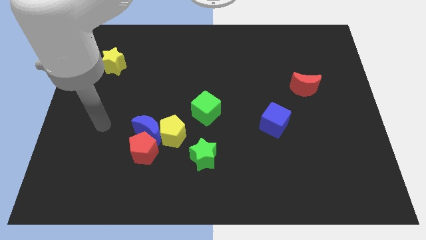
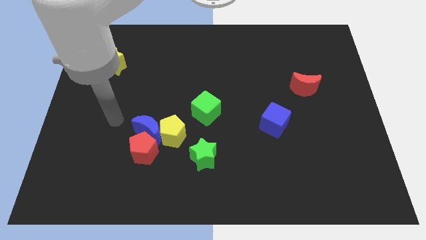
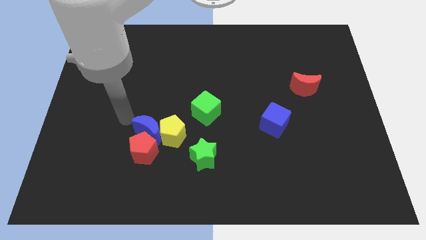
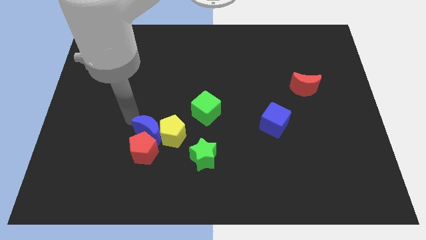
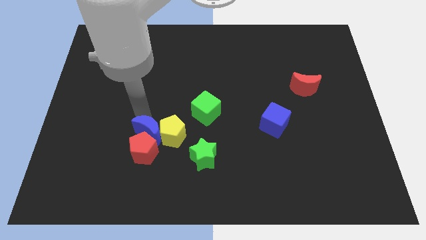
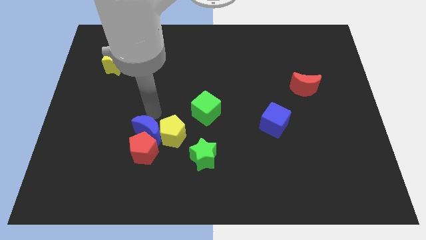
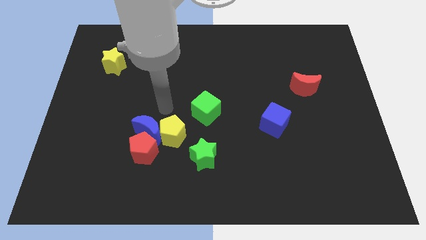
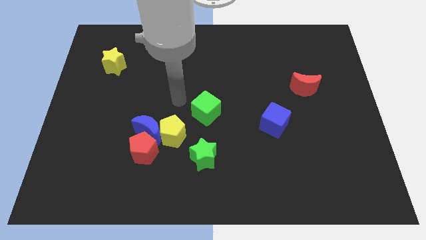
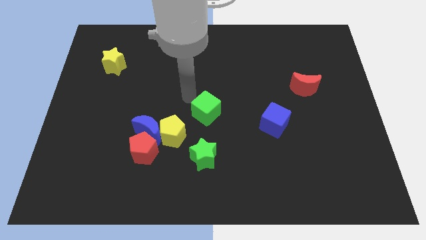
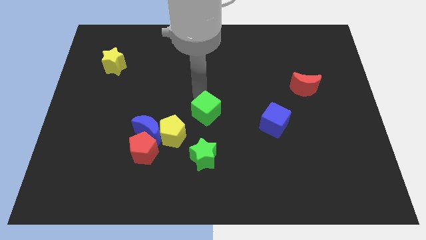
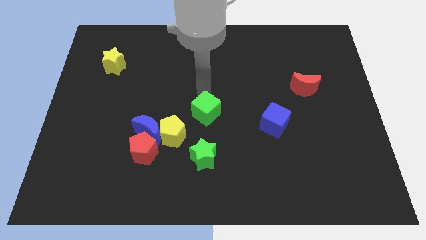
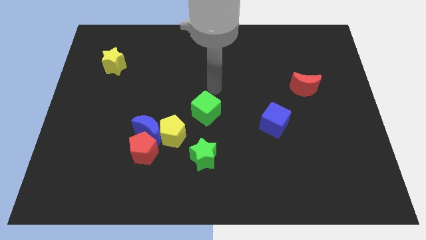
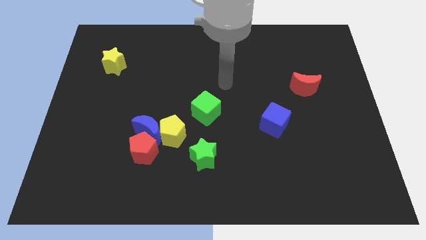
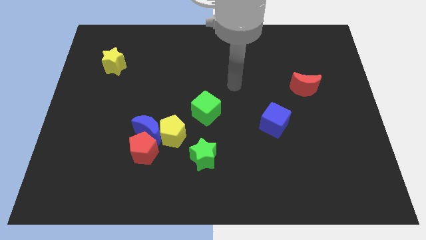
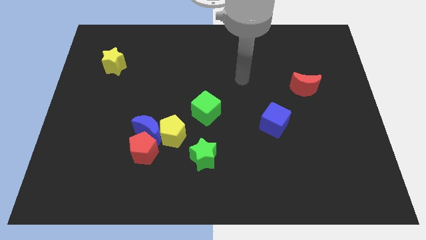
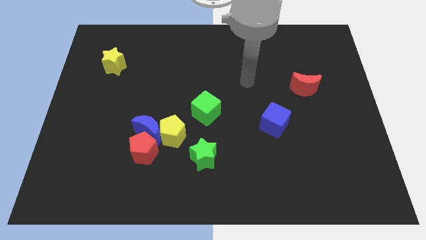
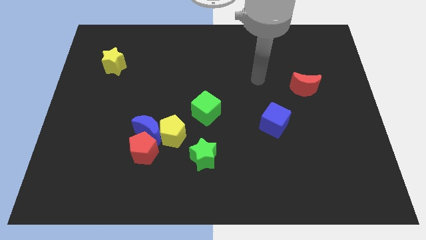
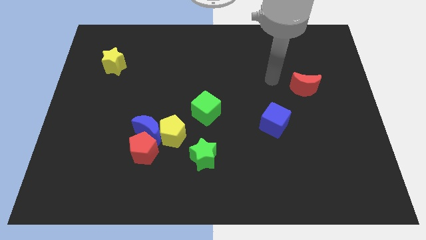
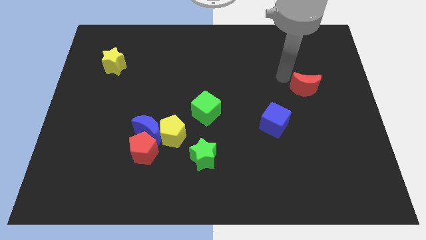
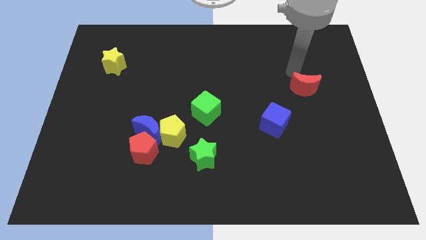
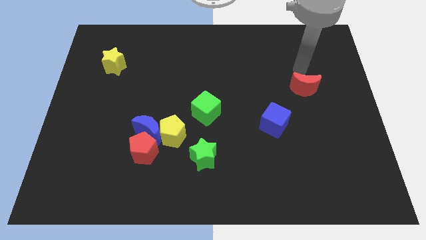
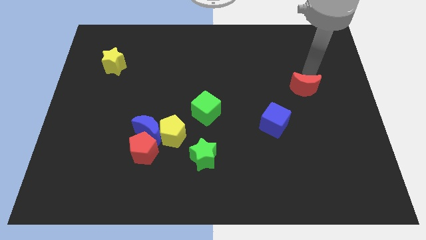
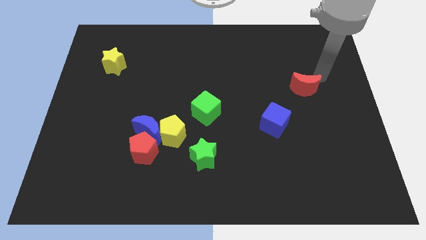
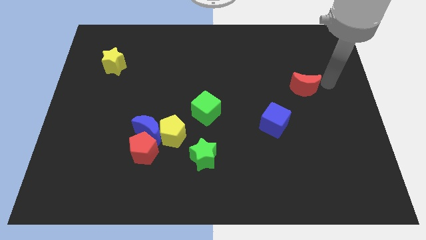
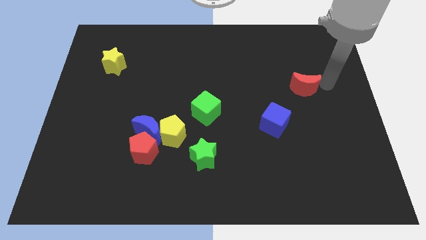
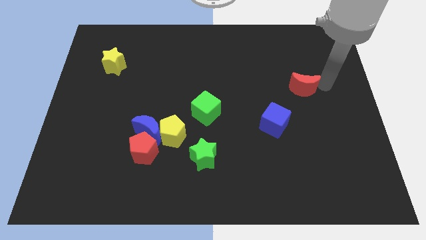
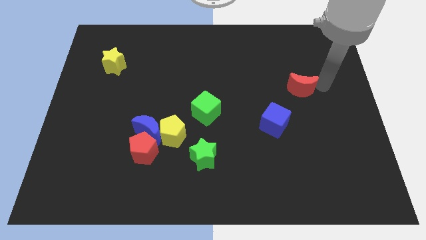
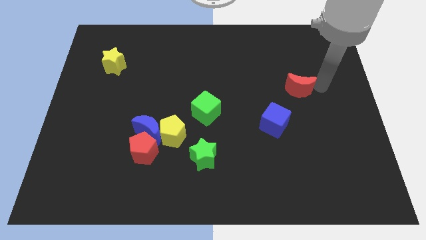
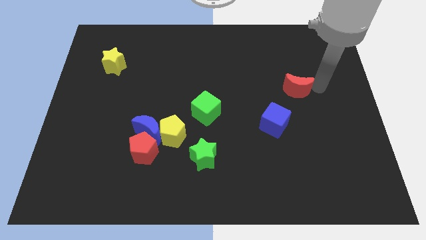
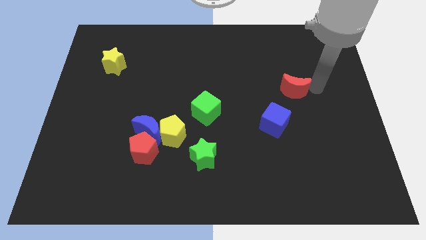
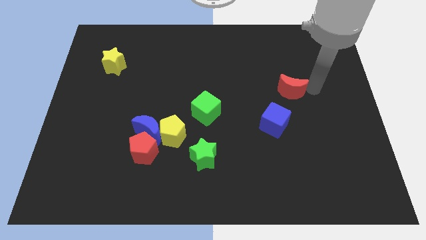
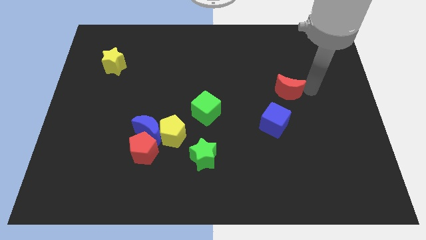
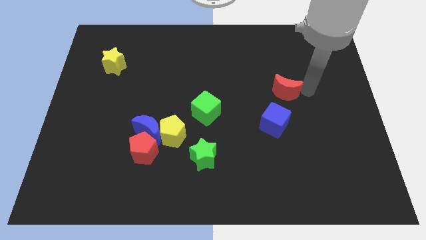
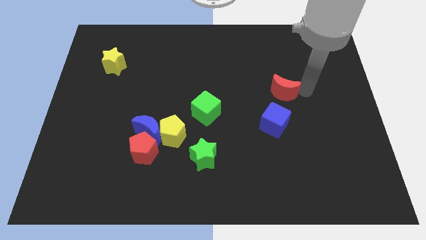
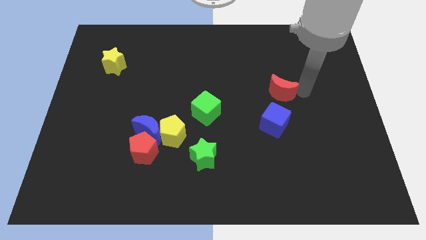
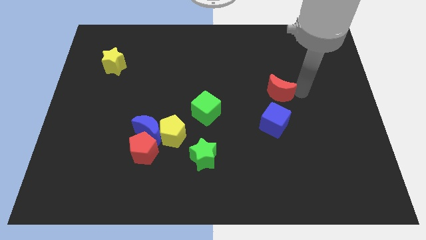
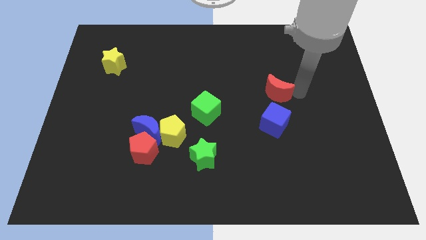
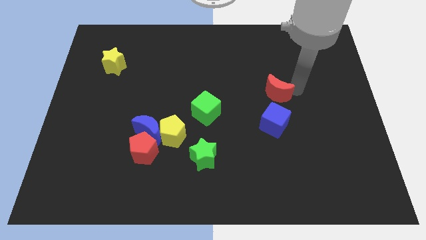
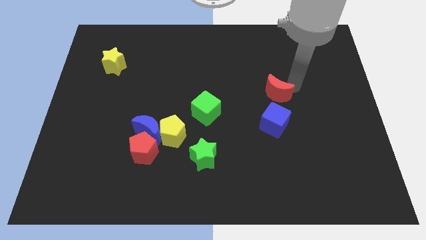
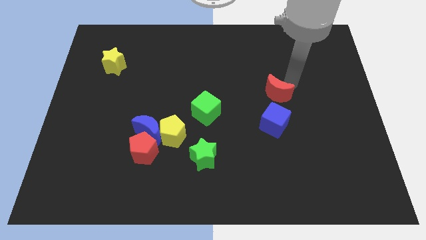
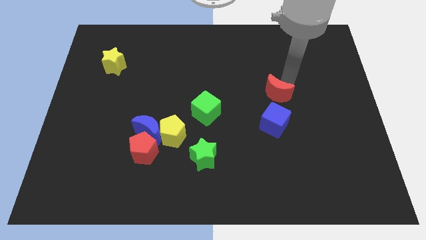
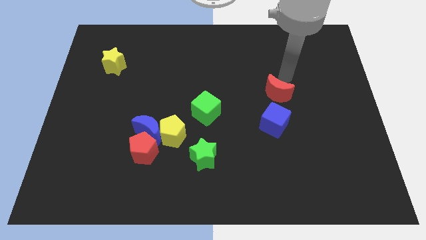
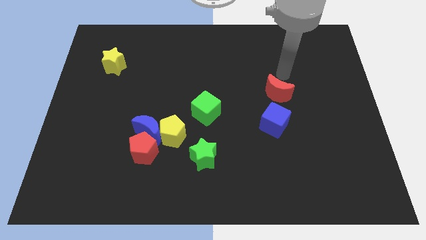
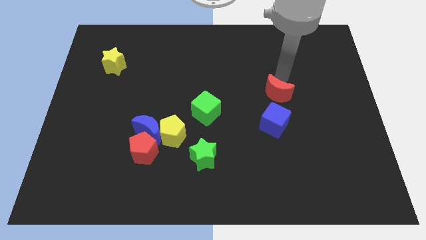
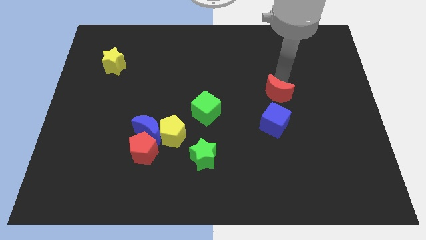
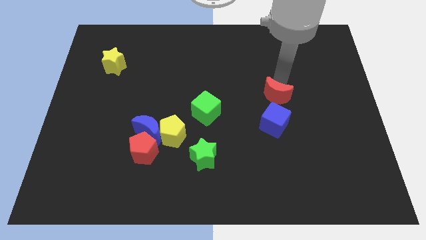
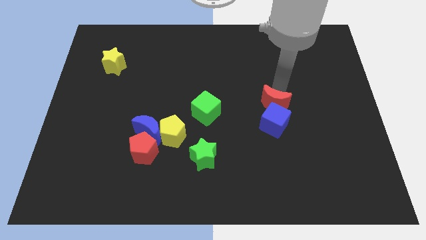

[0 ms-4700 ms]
slightly slide the red moon downwards and left diagonally

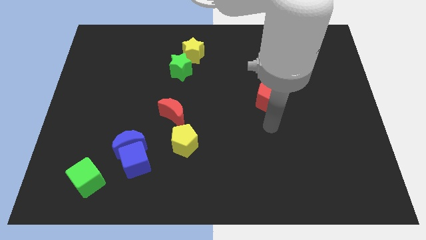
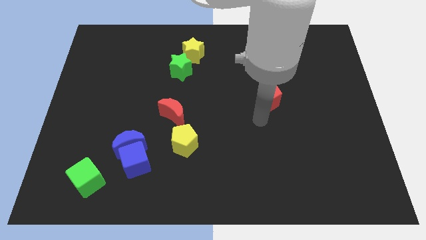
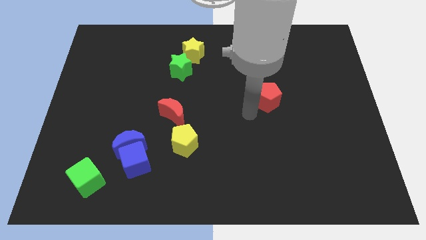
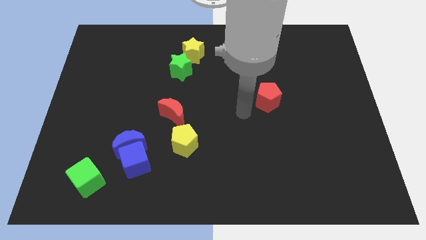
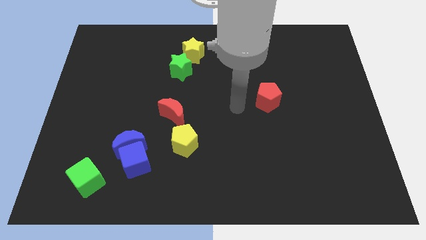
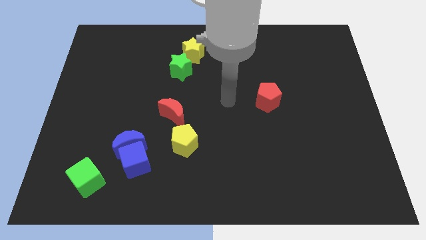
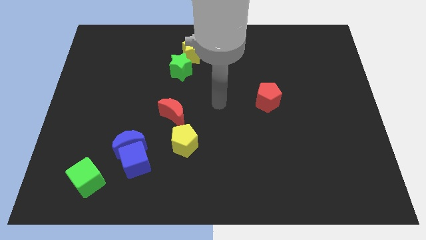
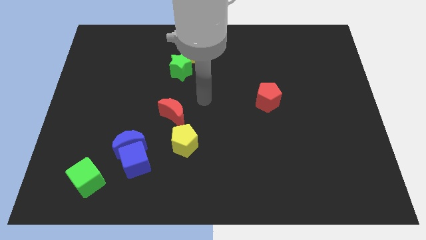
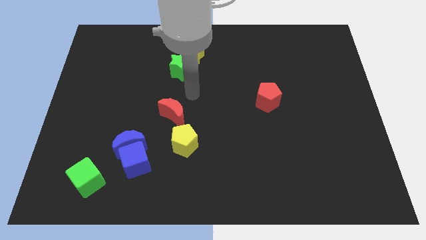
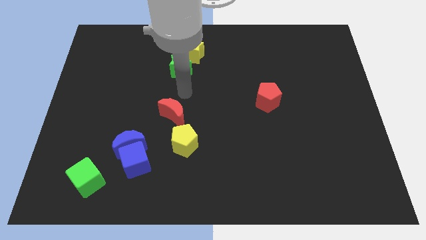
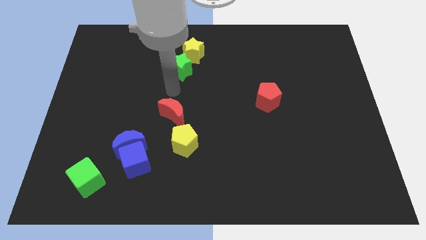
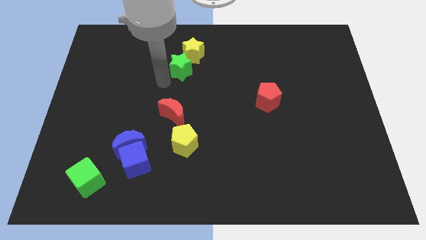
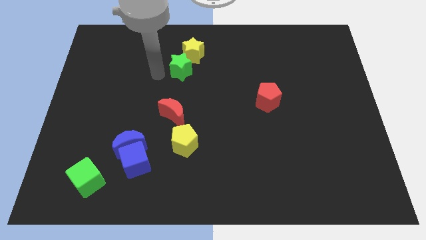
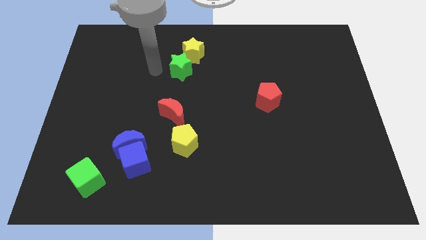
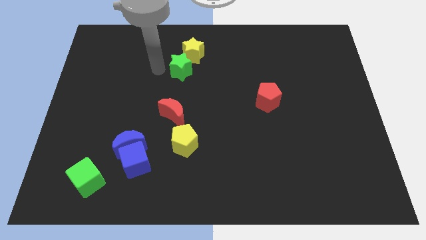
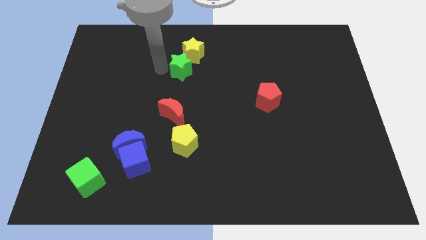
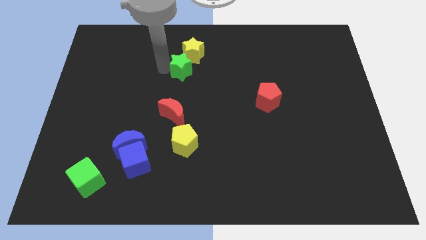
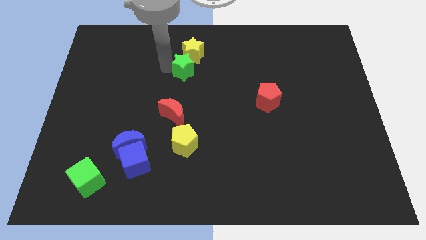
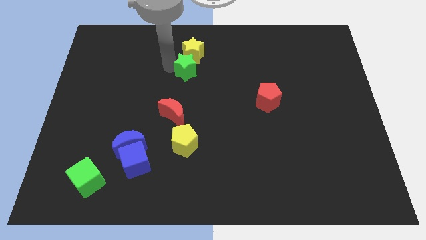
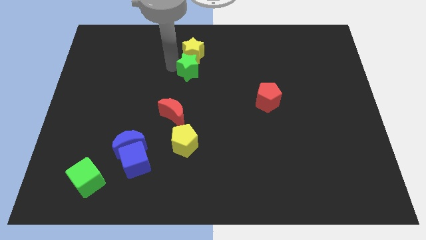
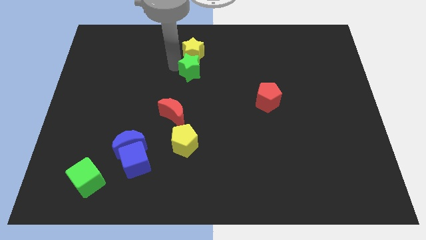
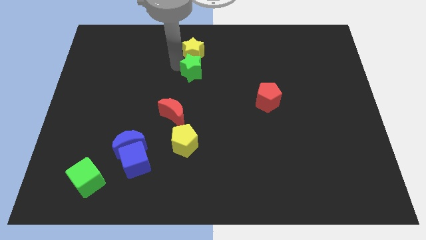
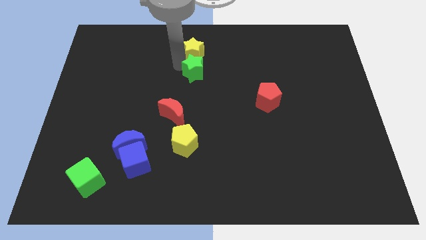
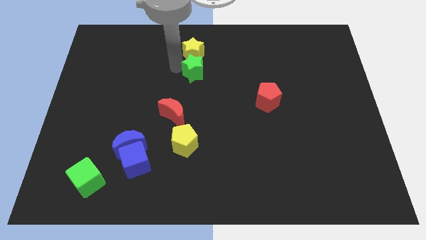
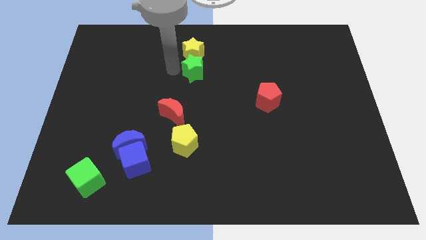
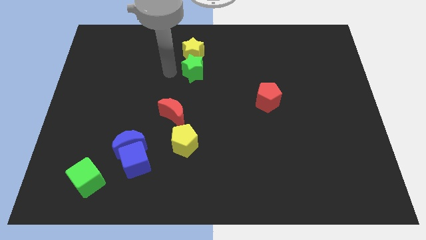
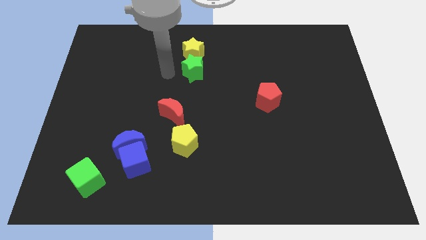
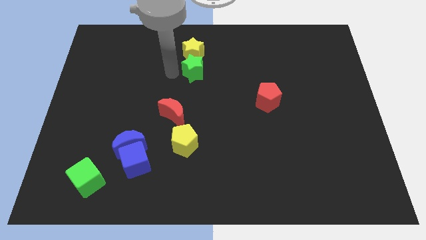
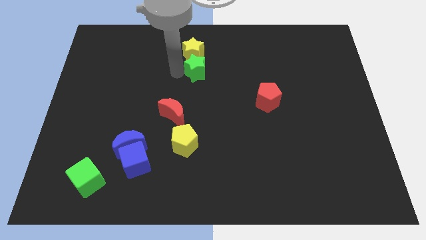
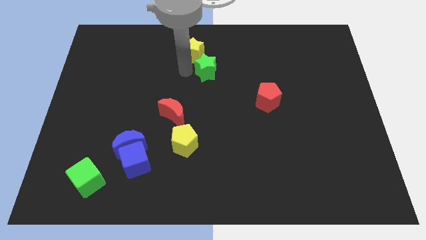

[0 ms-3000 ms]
slightly move the green star right

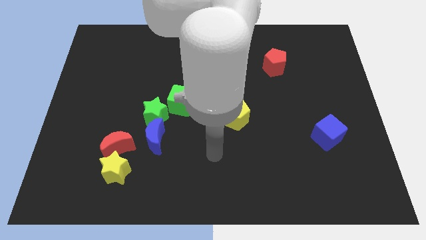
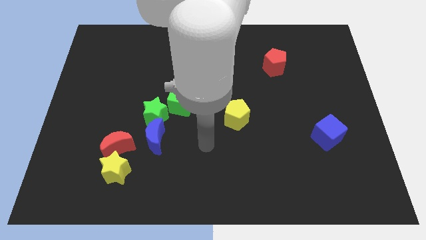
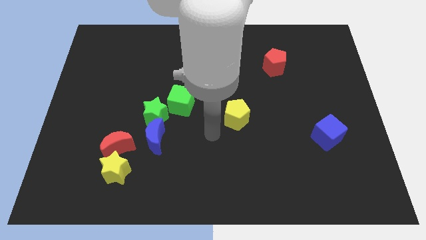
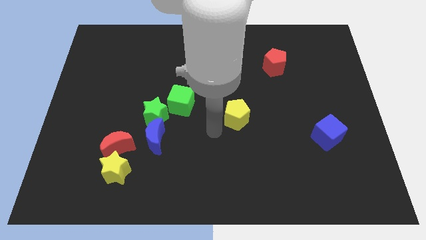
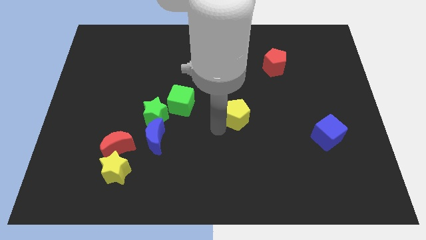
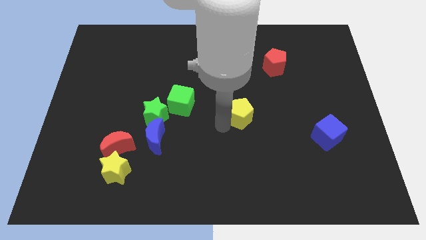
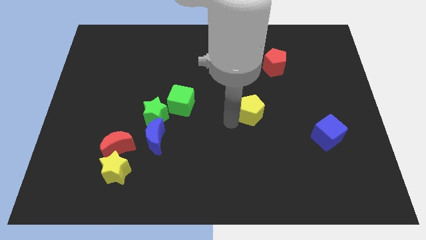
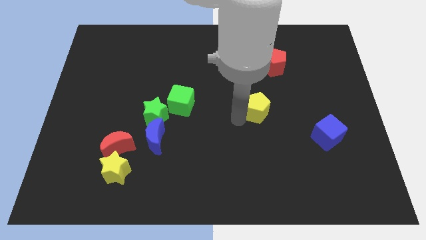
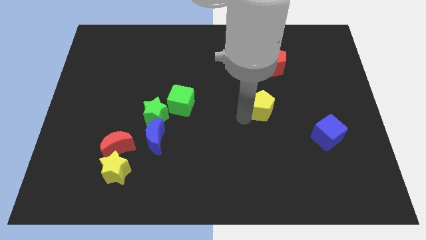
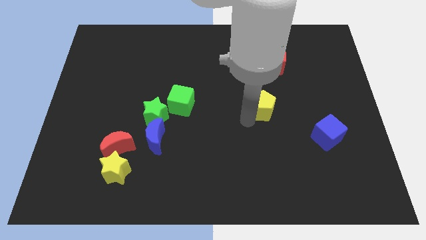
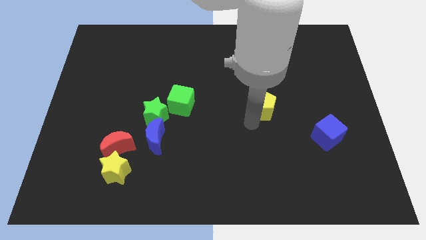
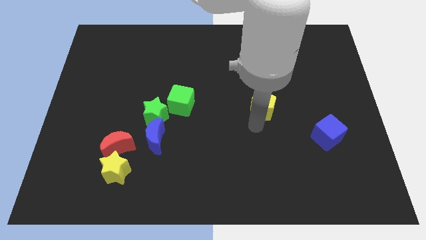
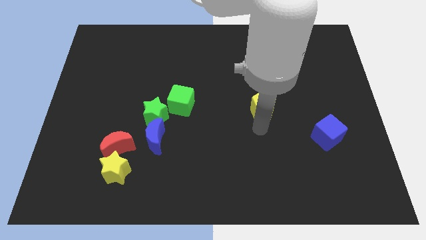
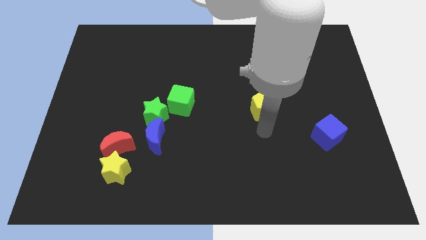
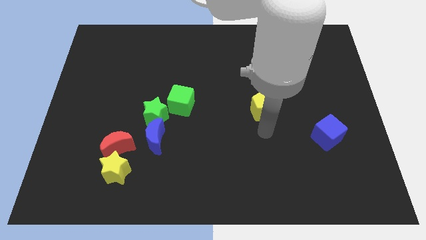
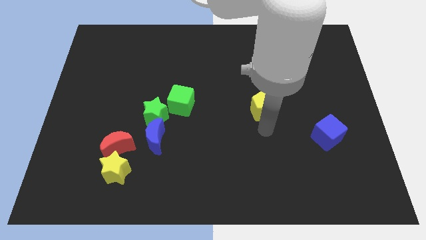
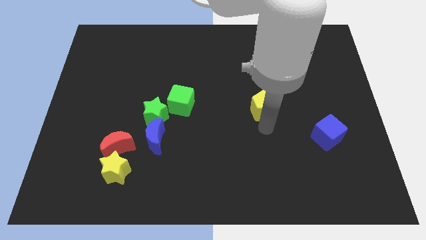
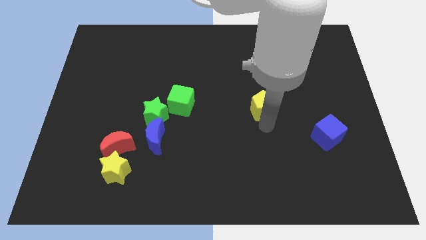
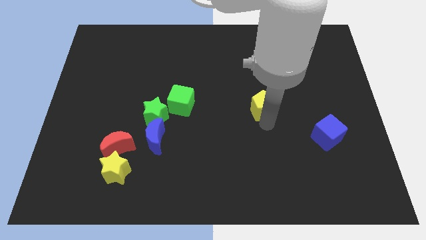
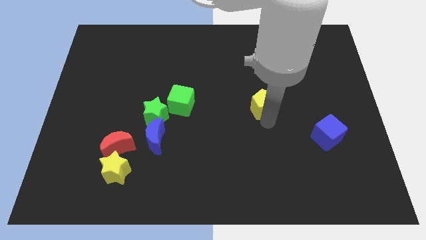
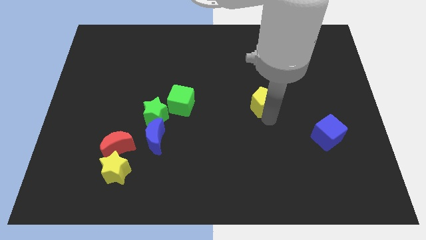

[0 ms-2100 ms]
push the yellow pentagon a little upwards and to the right diagonally
